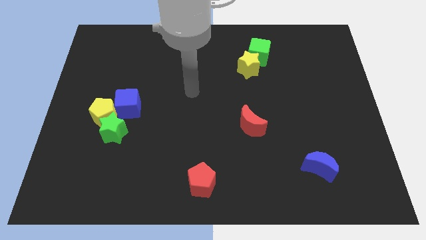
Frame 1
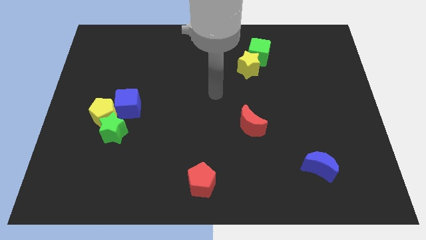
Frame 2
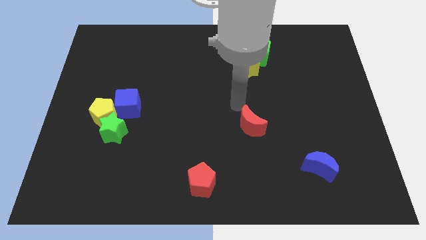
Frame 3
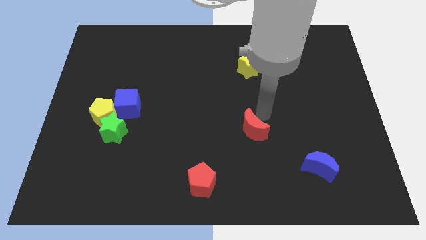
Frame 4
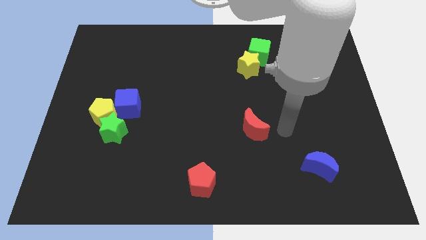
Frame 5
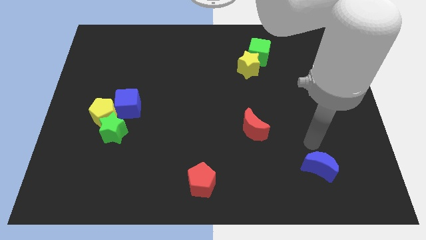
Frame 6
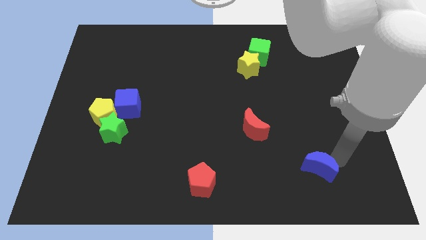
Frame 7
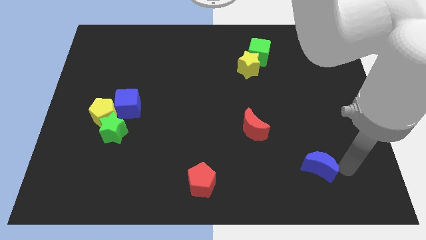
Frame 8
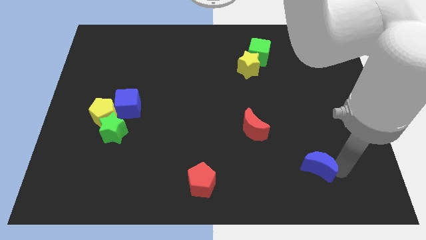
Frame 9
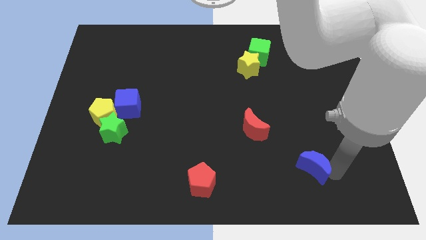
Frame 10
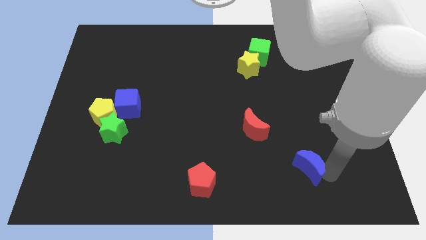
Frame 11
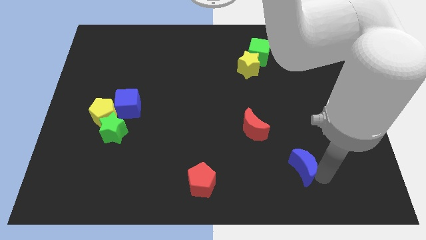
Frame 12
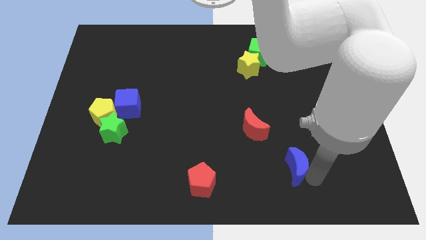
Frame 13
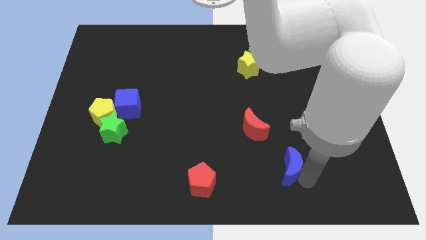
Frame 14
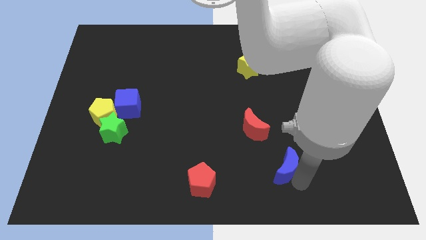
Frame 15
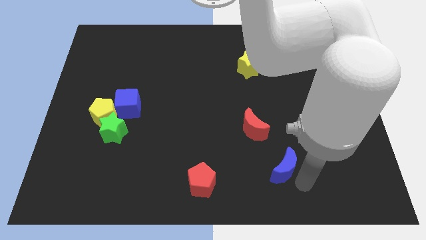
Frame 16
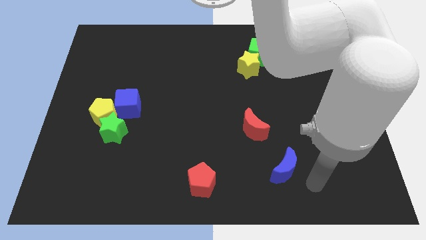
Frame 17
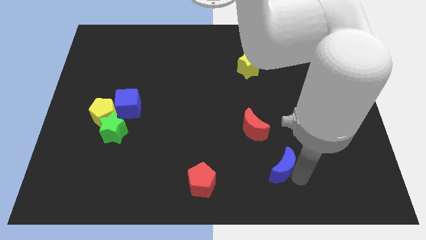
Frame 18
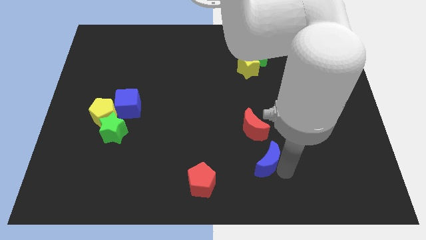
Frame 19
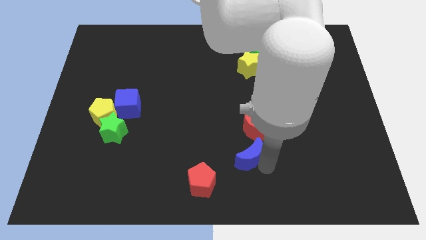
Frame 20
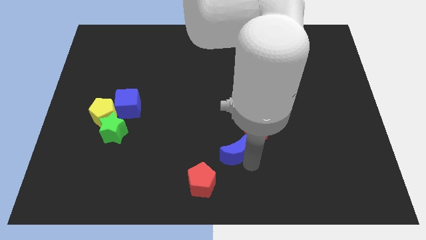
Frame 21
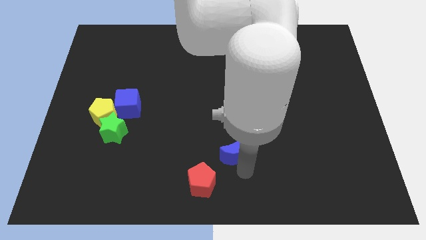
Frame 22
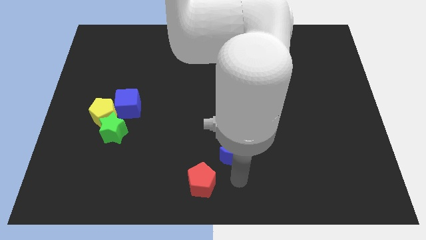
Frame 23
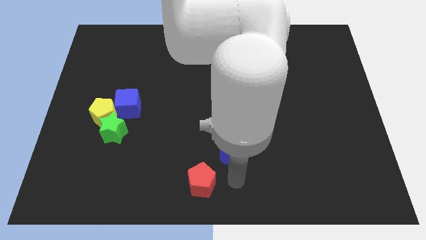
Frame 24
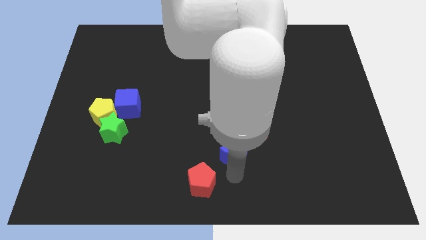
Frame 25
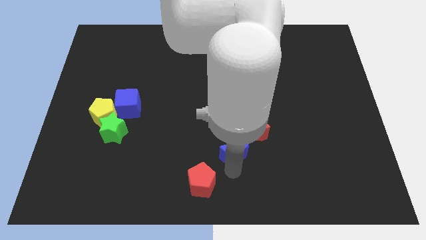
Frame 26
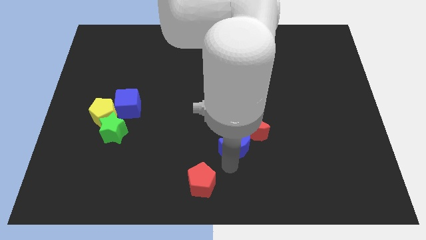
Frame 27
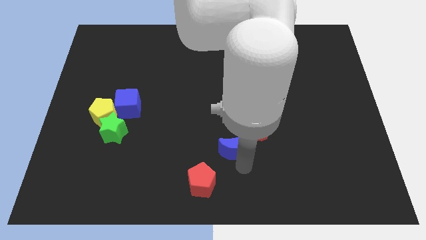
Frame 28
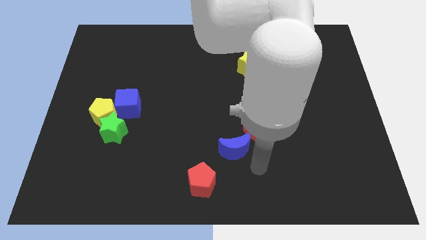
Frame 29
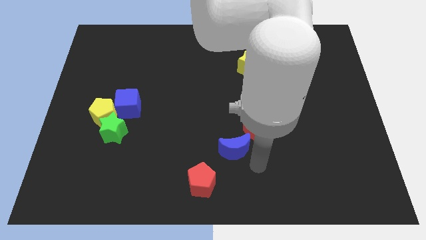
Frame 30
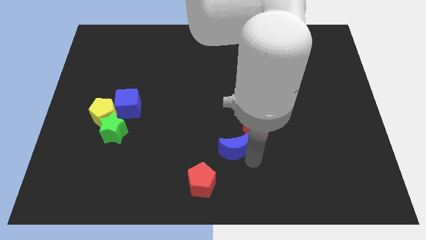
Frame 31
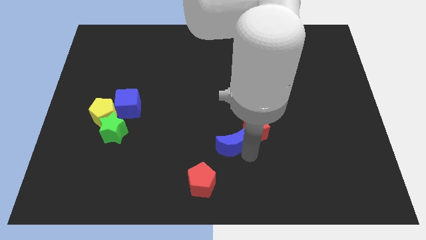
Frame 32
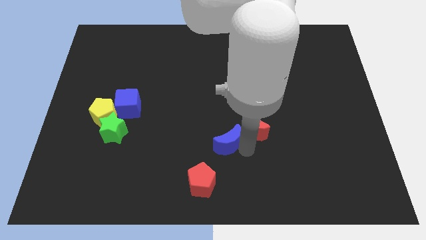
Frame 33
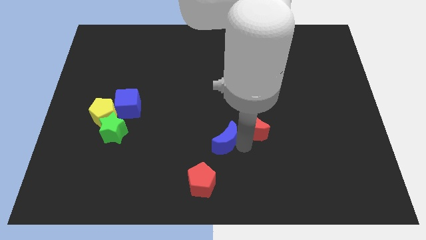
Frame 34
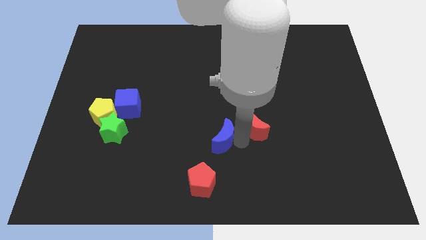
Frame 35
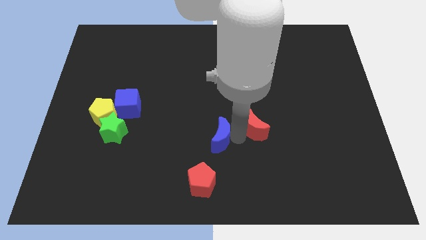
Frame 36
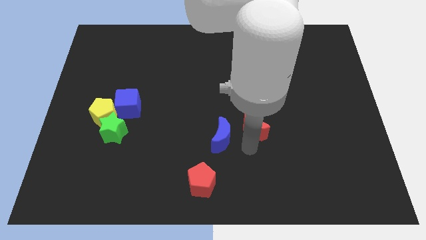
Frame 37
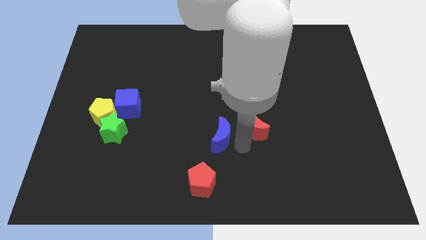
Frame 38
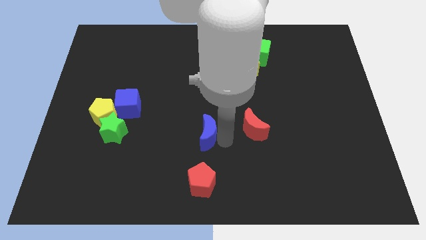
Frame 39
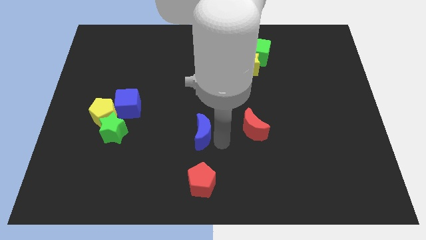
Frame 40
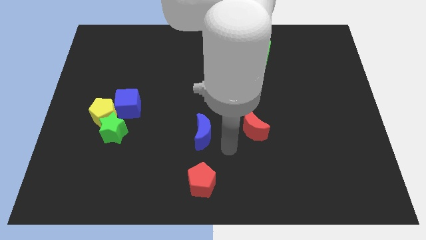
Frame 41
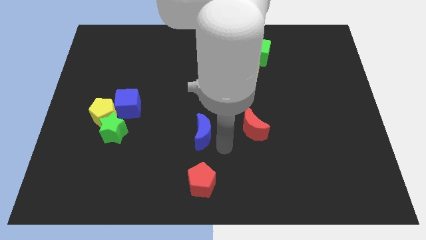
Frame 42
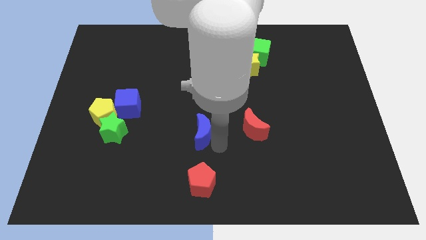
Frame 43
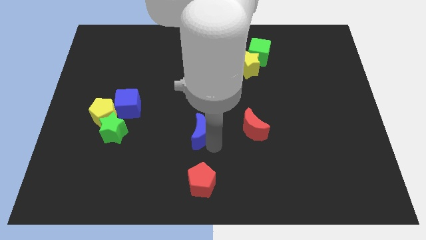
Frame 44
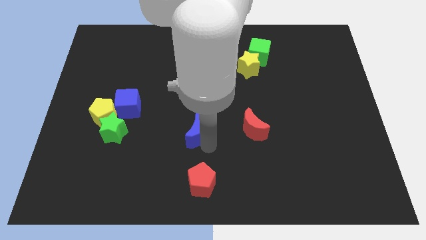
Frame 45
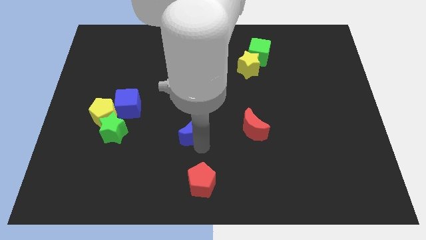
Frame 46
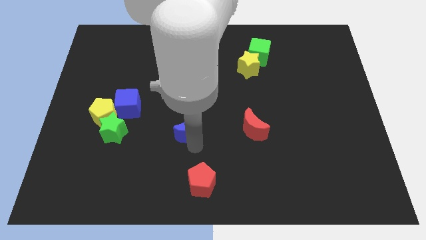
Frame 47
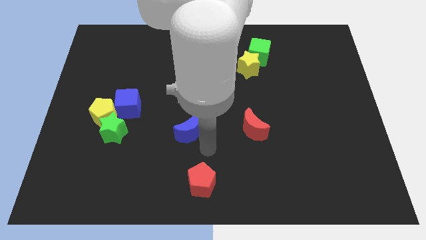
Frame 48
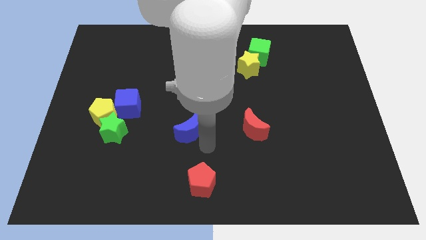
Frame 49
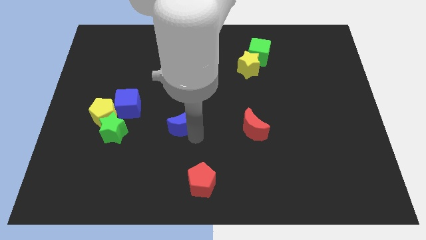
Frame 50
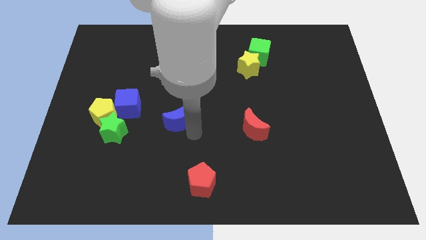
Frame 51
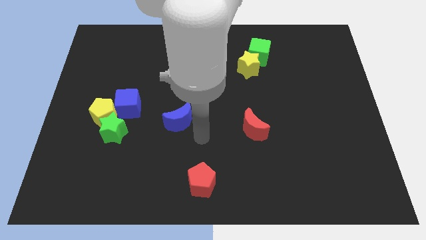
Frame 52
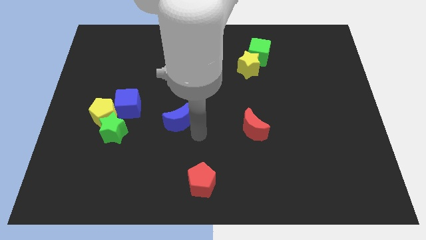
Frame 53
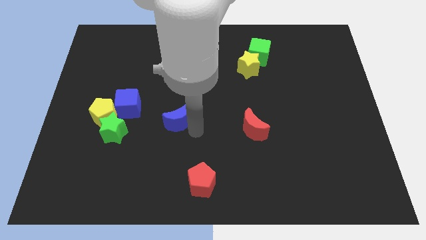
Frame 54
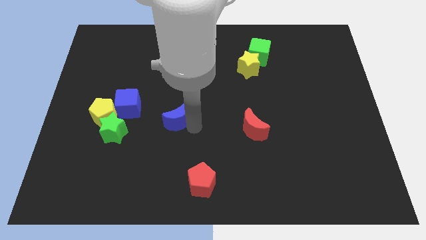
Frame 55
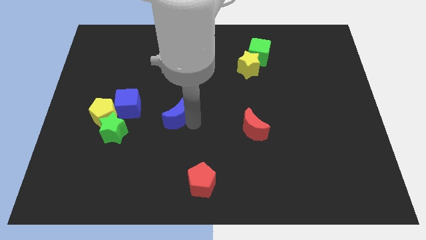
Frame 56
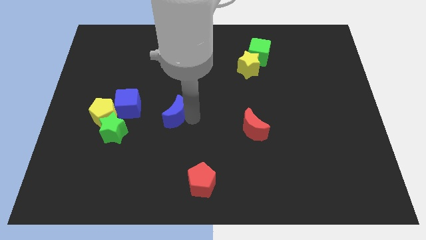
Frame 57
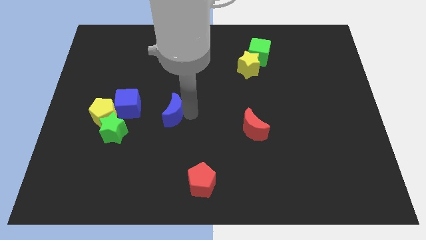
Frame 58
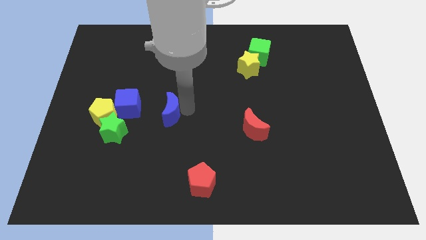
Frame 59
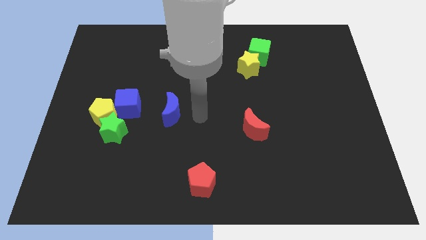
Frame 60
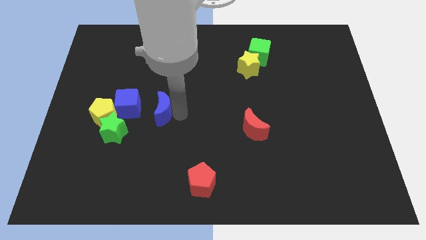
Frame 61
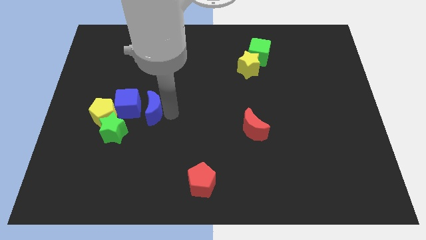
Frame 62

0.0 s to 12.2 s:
move the blue moon towards the blue cube
